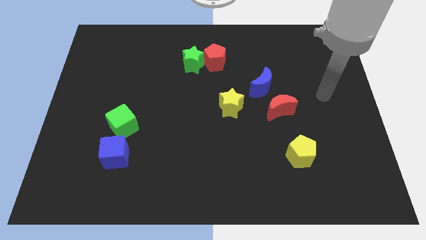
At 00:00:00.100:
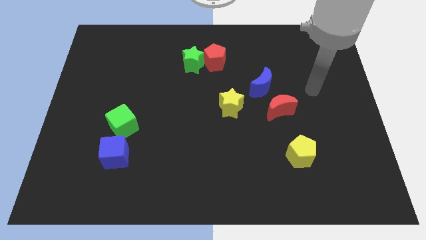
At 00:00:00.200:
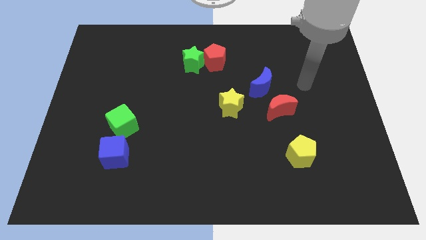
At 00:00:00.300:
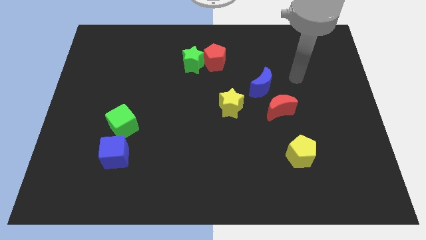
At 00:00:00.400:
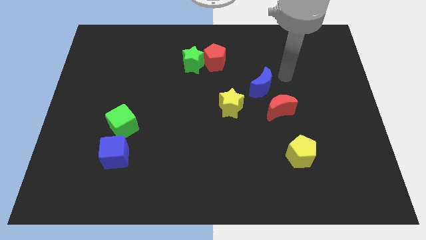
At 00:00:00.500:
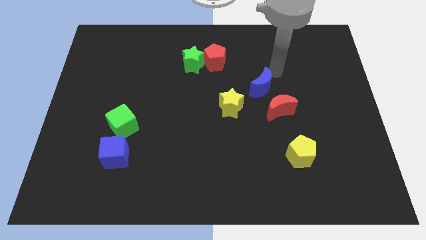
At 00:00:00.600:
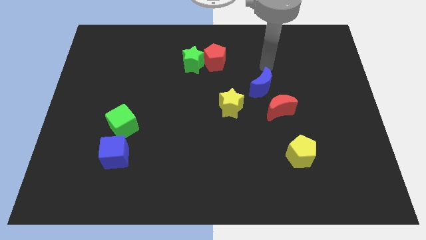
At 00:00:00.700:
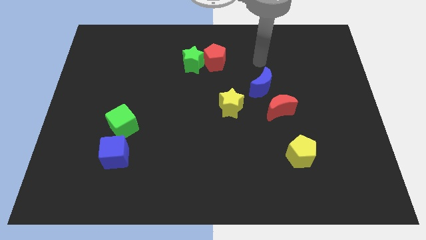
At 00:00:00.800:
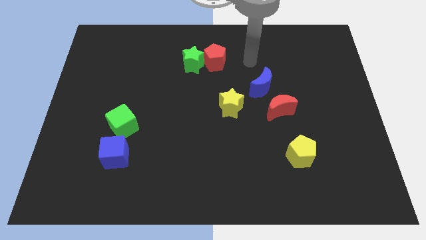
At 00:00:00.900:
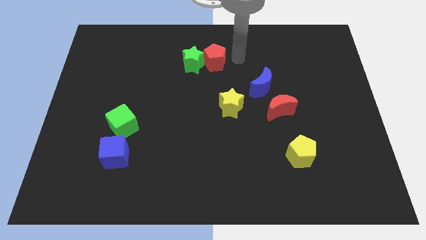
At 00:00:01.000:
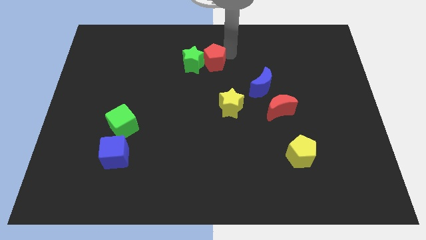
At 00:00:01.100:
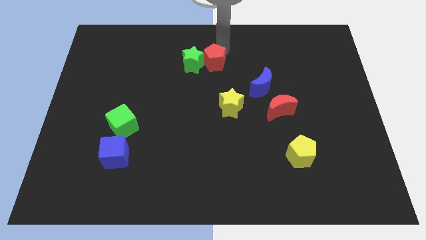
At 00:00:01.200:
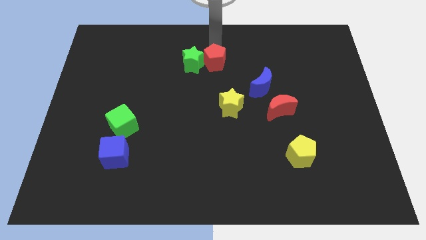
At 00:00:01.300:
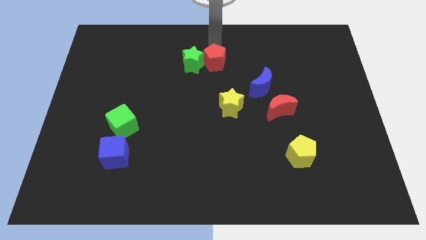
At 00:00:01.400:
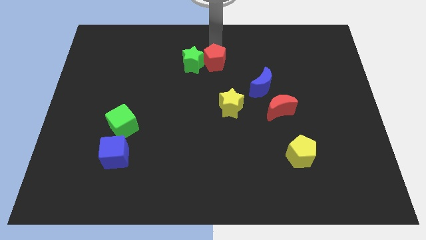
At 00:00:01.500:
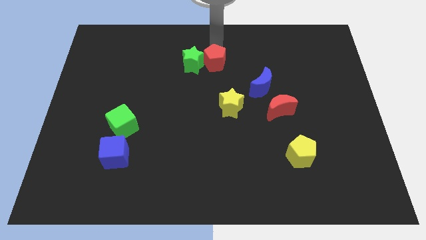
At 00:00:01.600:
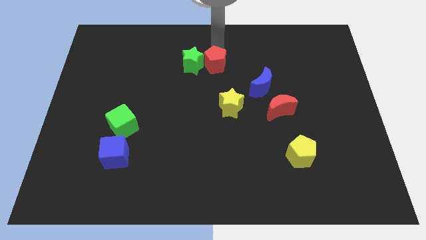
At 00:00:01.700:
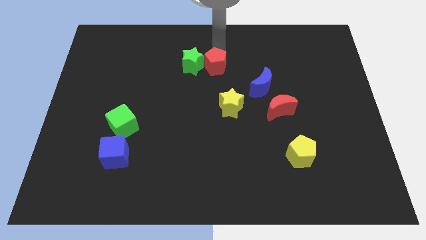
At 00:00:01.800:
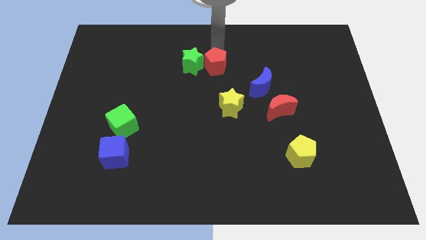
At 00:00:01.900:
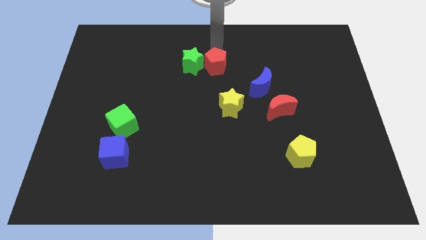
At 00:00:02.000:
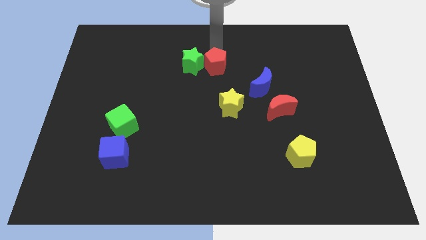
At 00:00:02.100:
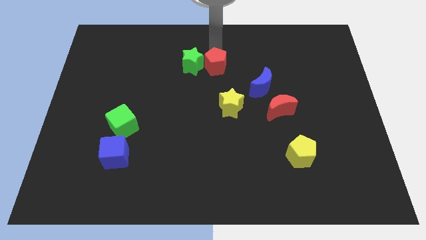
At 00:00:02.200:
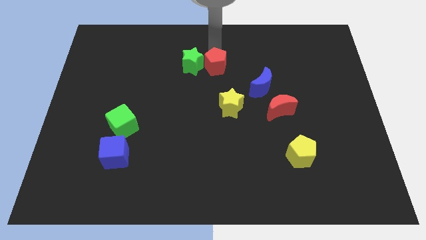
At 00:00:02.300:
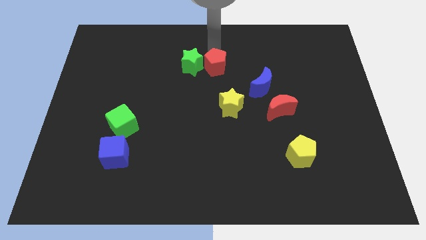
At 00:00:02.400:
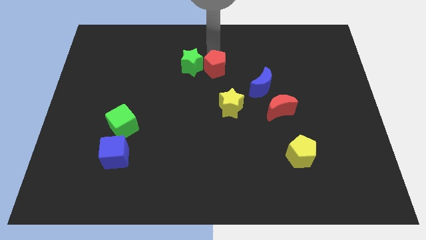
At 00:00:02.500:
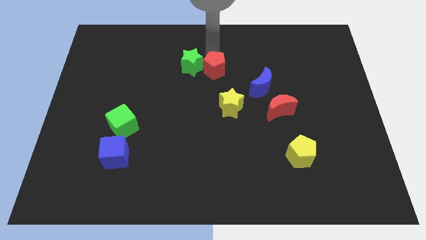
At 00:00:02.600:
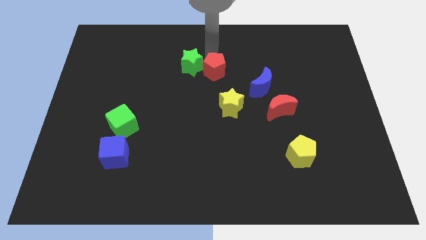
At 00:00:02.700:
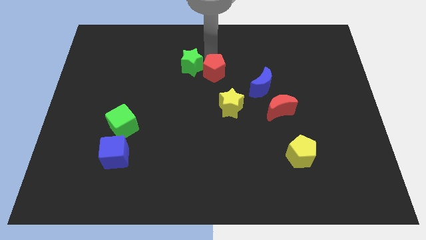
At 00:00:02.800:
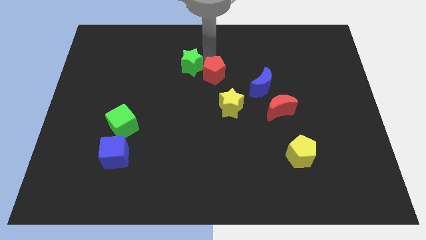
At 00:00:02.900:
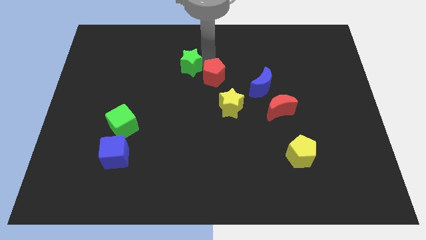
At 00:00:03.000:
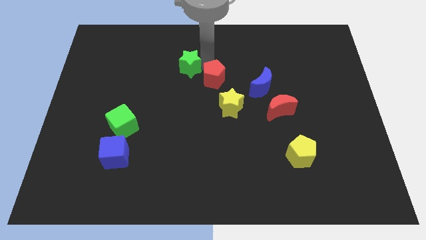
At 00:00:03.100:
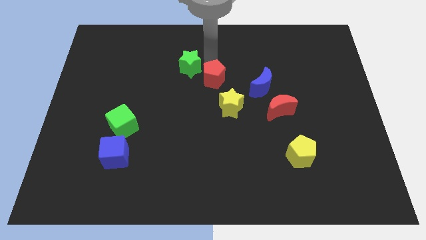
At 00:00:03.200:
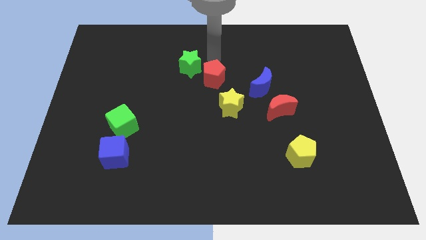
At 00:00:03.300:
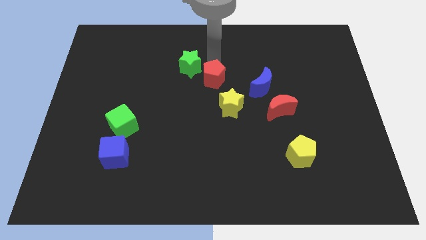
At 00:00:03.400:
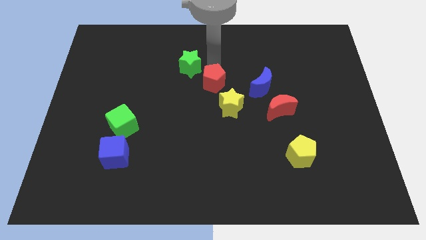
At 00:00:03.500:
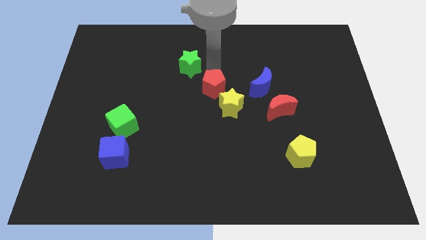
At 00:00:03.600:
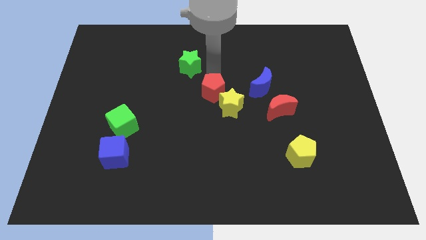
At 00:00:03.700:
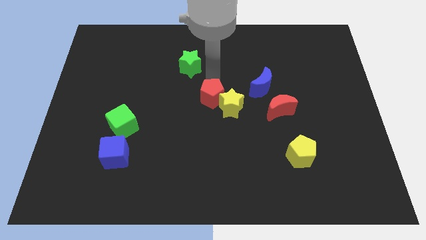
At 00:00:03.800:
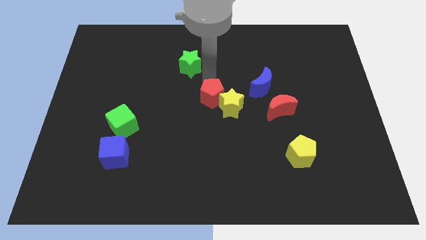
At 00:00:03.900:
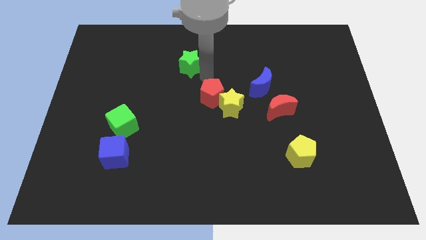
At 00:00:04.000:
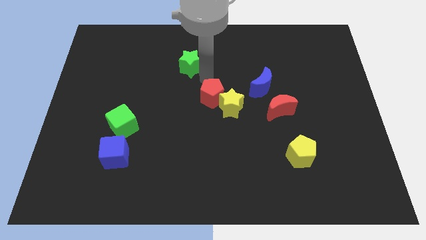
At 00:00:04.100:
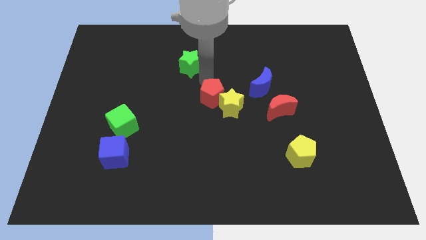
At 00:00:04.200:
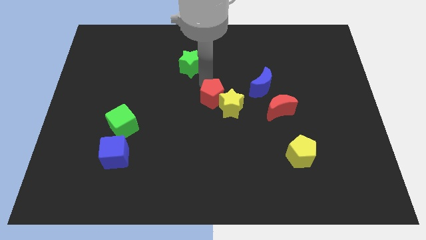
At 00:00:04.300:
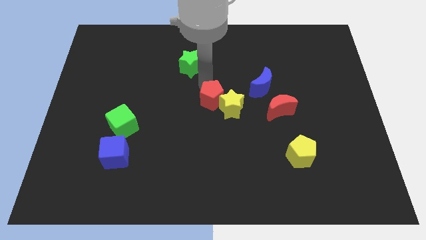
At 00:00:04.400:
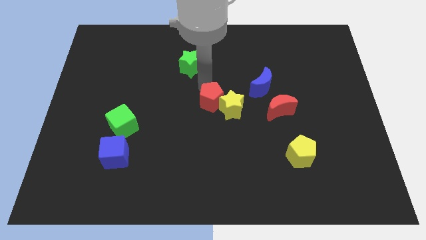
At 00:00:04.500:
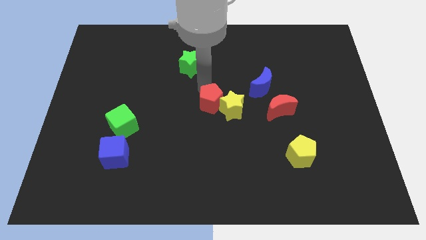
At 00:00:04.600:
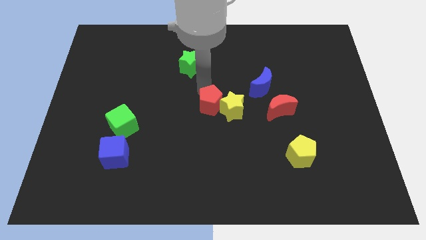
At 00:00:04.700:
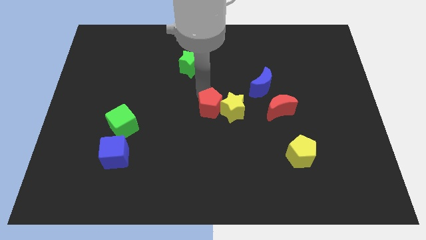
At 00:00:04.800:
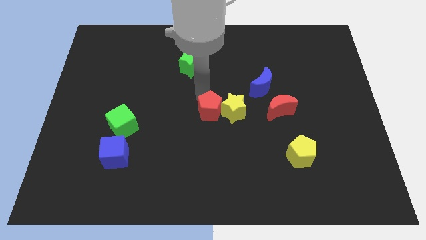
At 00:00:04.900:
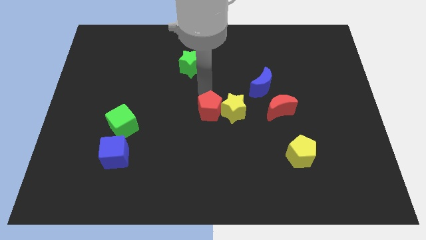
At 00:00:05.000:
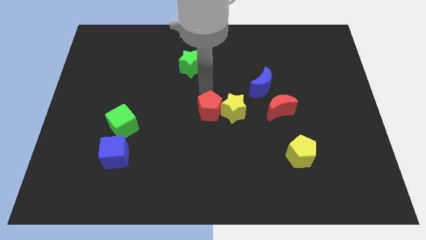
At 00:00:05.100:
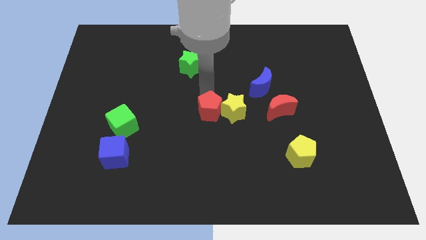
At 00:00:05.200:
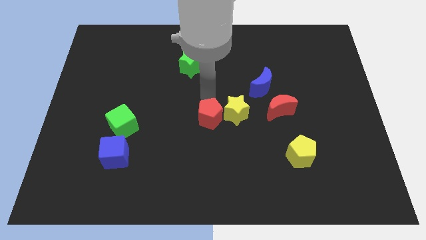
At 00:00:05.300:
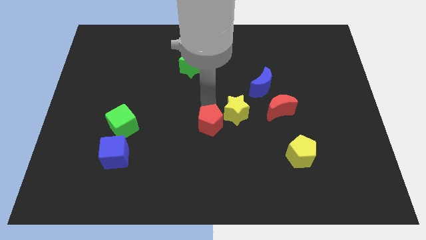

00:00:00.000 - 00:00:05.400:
slide the red pentagon down

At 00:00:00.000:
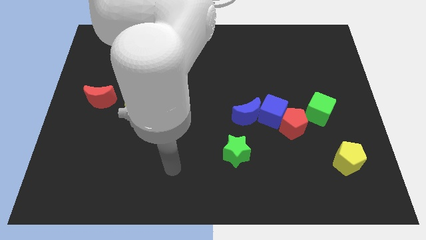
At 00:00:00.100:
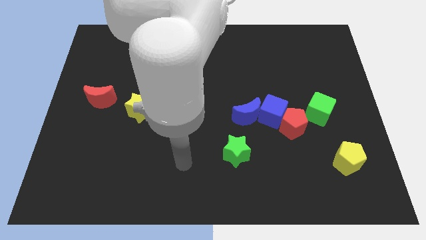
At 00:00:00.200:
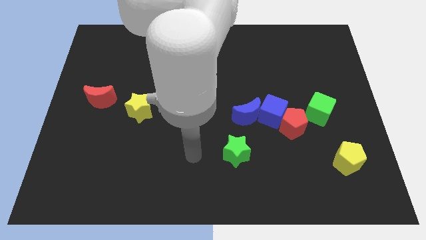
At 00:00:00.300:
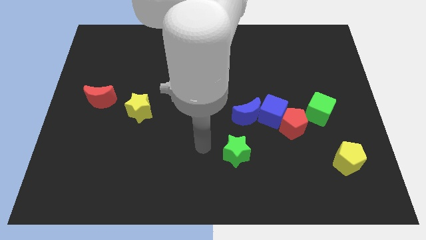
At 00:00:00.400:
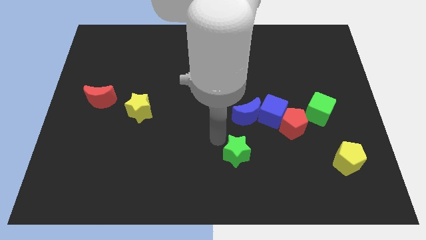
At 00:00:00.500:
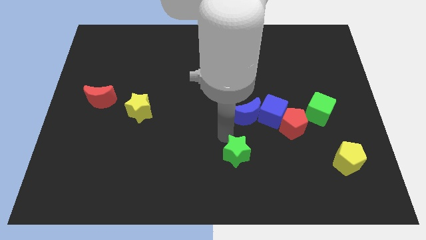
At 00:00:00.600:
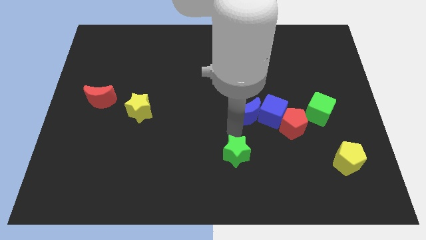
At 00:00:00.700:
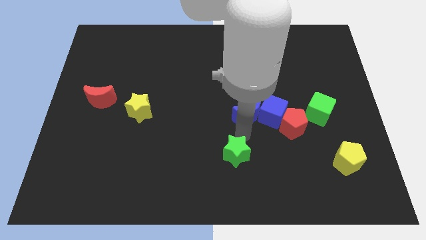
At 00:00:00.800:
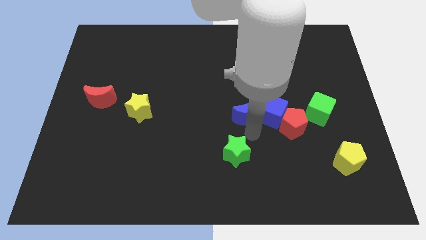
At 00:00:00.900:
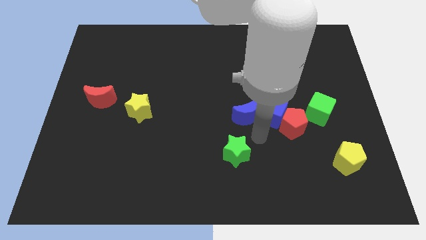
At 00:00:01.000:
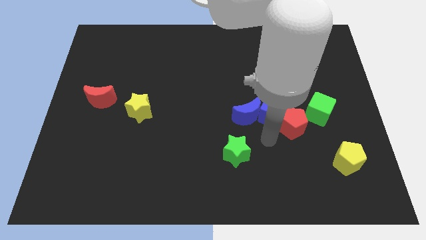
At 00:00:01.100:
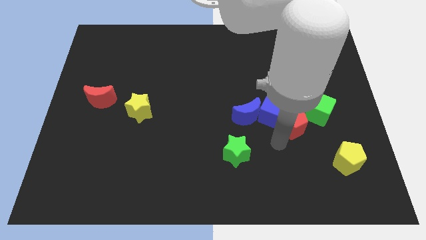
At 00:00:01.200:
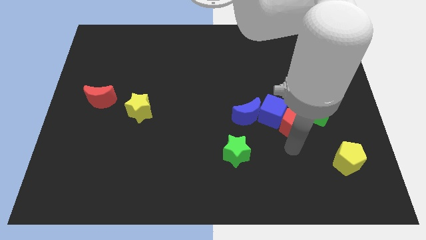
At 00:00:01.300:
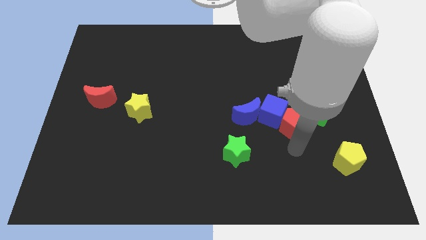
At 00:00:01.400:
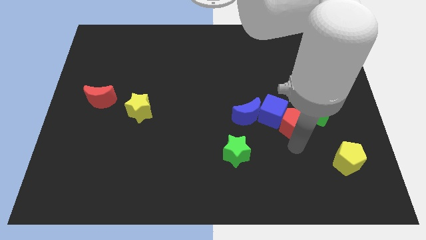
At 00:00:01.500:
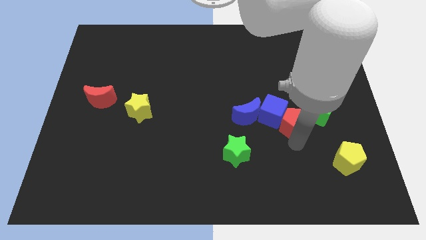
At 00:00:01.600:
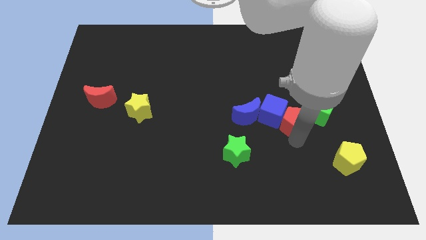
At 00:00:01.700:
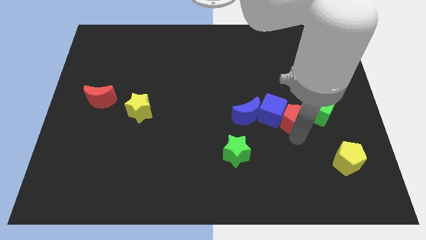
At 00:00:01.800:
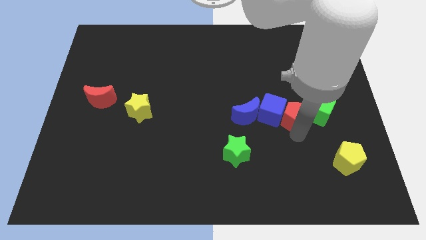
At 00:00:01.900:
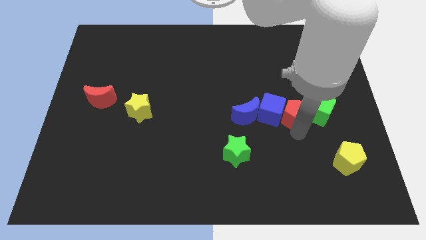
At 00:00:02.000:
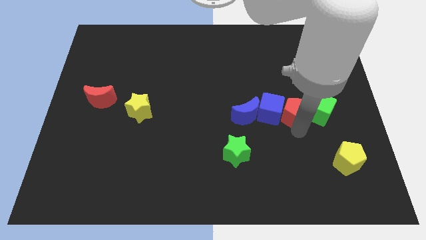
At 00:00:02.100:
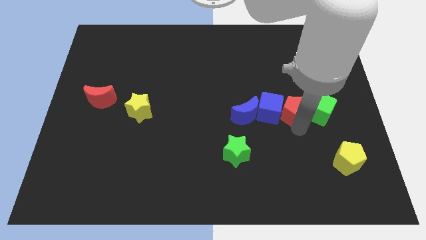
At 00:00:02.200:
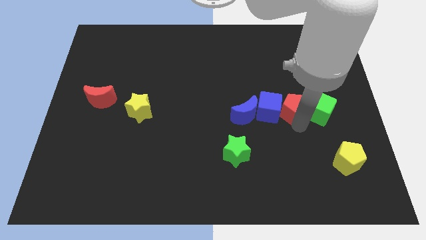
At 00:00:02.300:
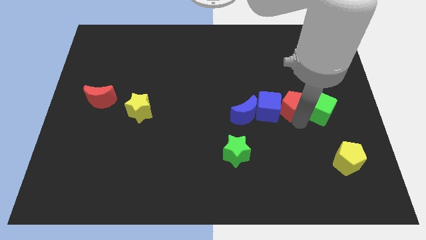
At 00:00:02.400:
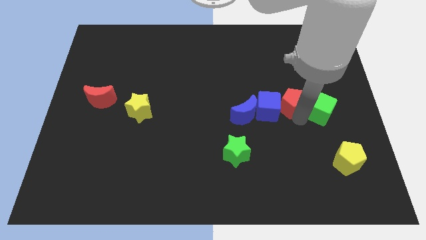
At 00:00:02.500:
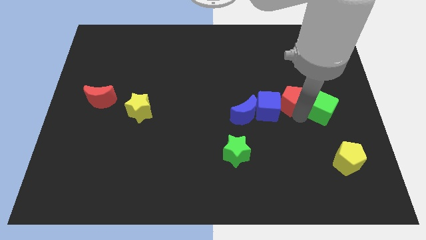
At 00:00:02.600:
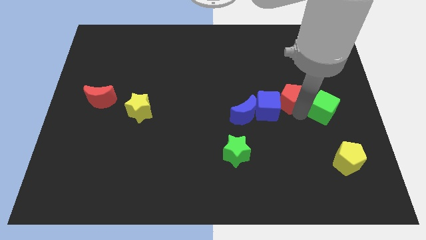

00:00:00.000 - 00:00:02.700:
slide the red pentagon somewhat up
